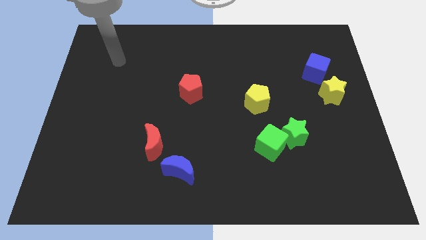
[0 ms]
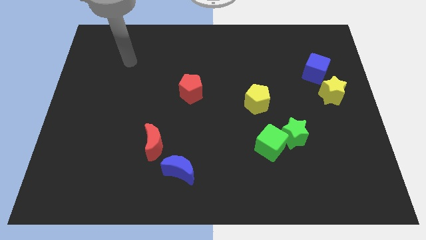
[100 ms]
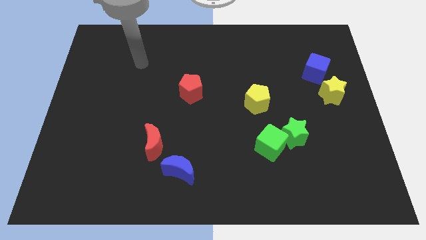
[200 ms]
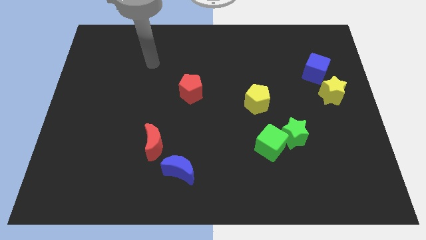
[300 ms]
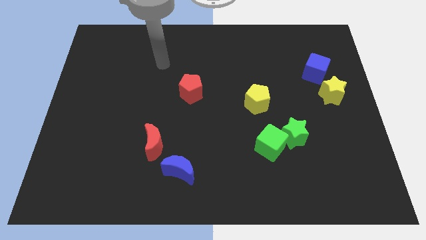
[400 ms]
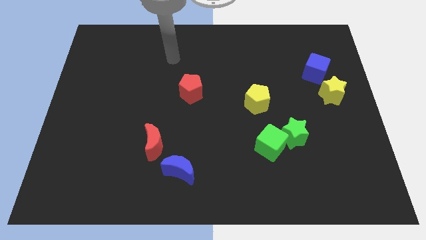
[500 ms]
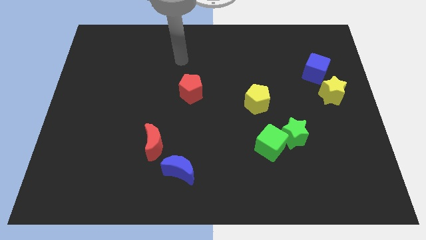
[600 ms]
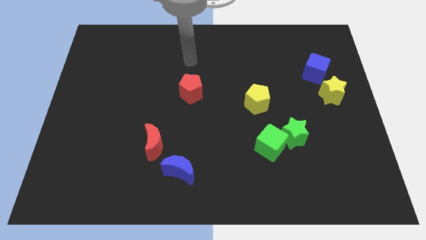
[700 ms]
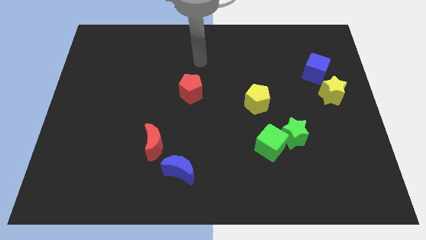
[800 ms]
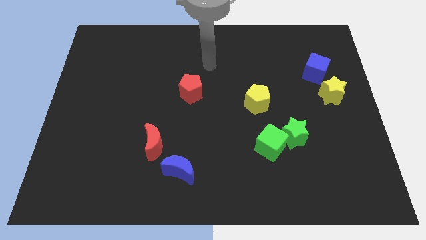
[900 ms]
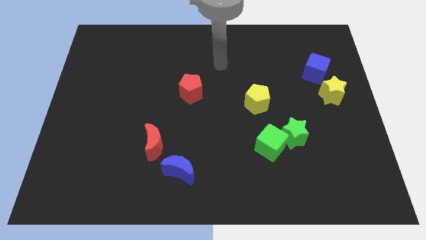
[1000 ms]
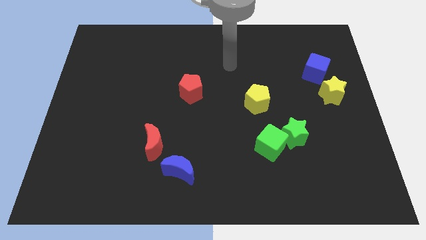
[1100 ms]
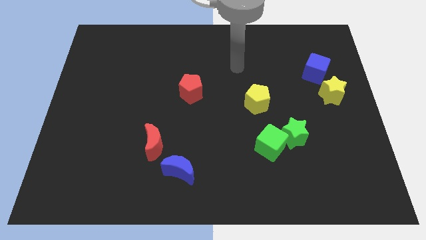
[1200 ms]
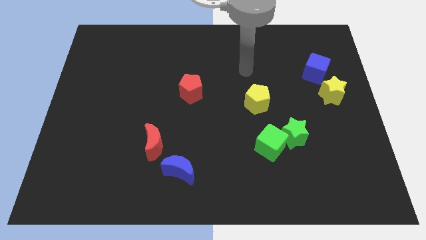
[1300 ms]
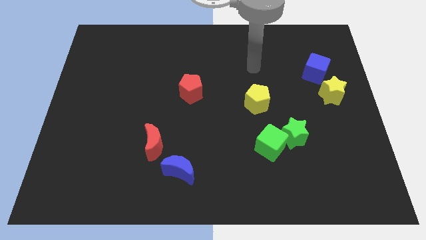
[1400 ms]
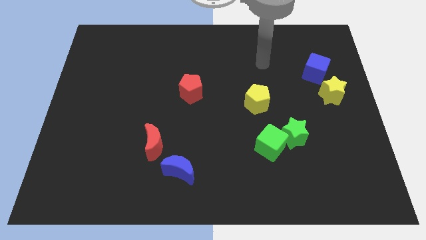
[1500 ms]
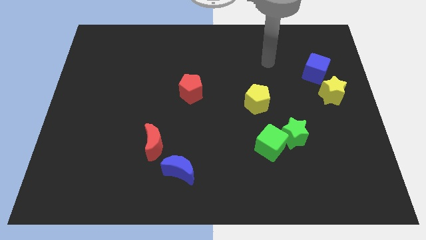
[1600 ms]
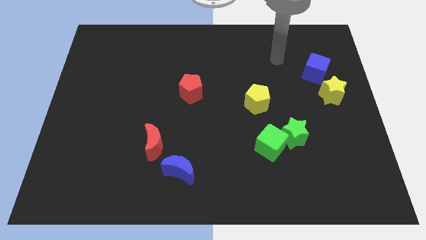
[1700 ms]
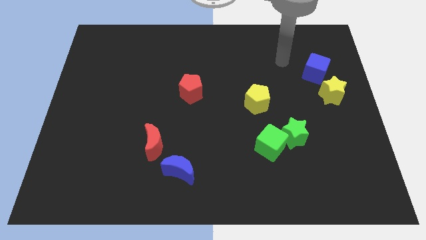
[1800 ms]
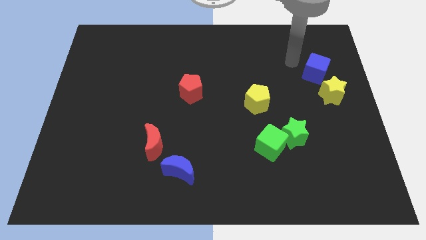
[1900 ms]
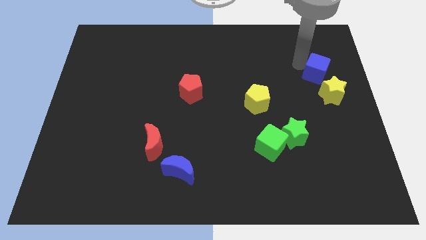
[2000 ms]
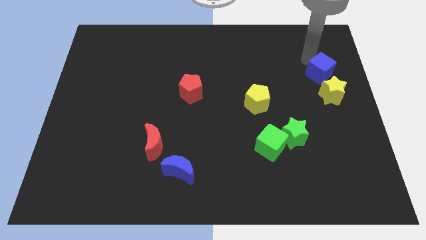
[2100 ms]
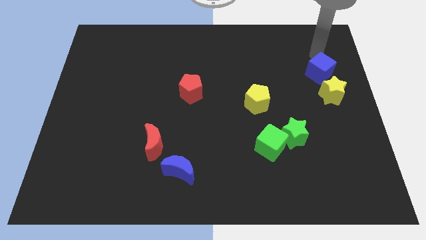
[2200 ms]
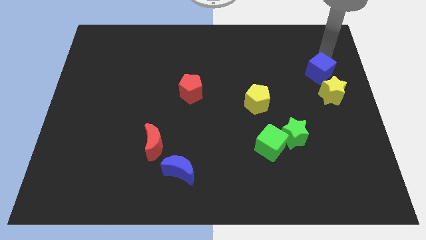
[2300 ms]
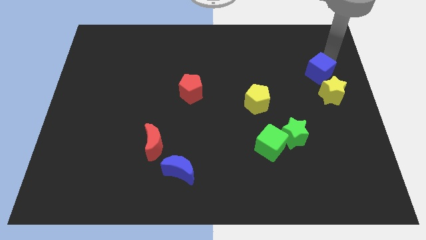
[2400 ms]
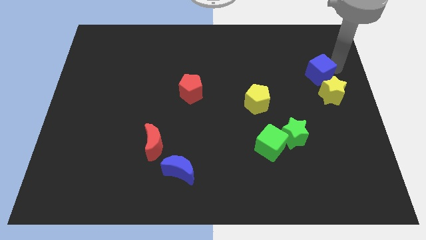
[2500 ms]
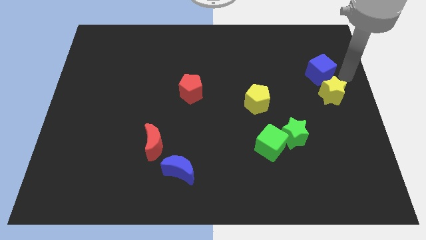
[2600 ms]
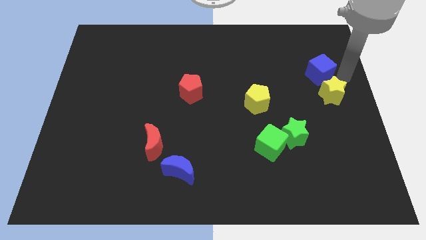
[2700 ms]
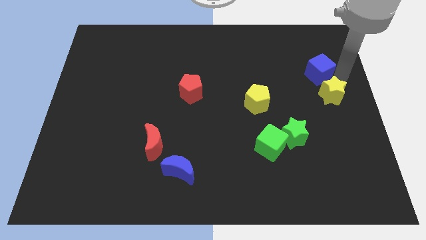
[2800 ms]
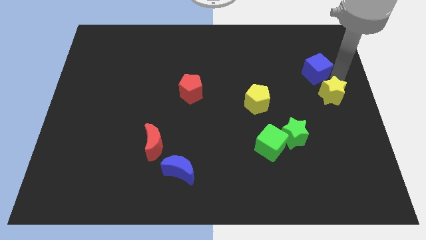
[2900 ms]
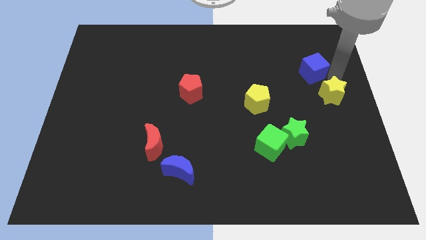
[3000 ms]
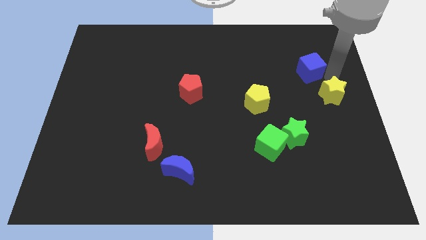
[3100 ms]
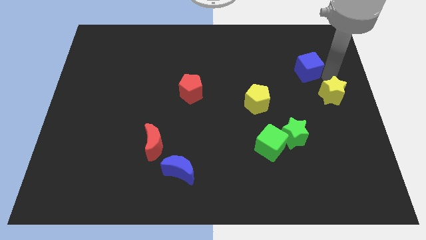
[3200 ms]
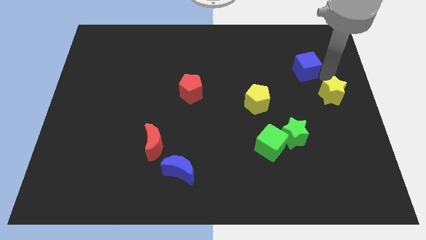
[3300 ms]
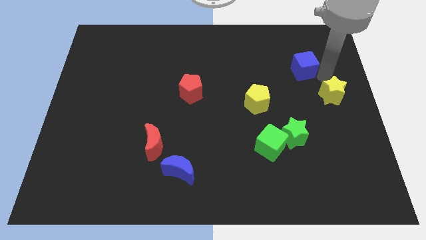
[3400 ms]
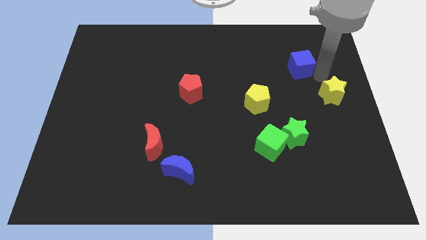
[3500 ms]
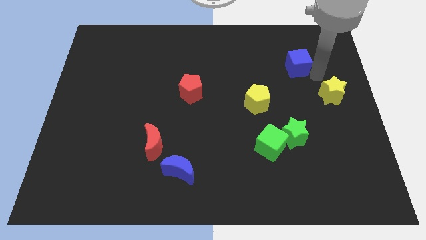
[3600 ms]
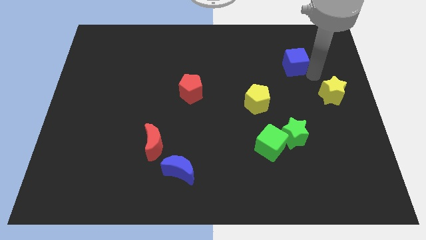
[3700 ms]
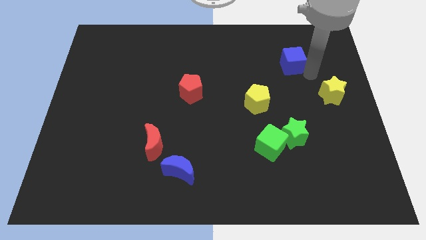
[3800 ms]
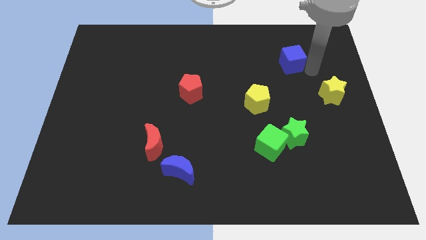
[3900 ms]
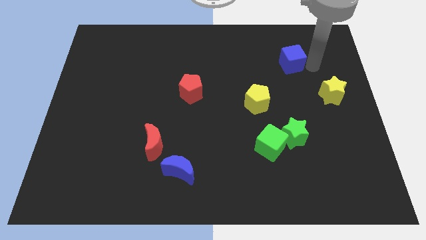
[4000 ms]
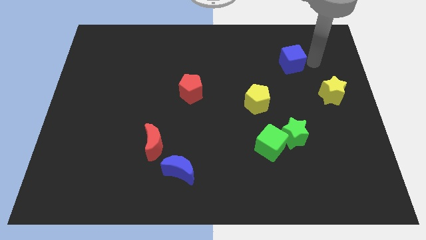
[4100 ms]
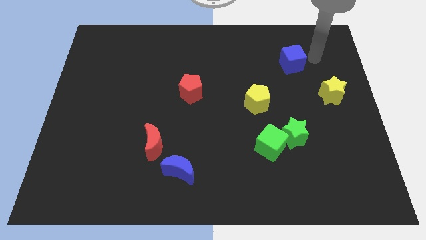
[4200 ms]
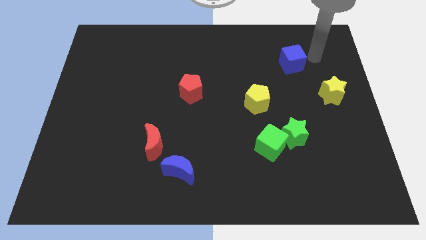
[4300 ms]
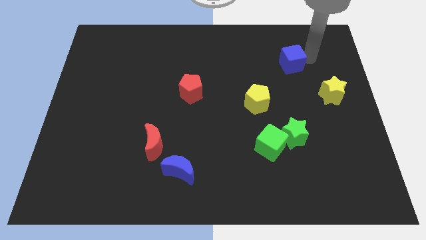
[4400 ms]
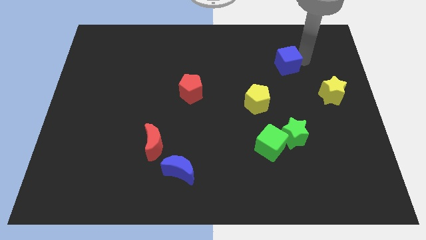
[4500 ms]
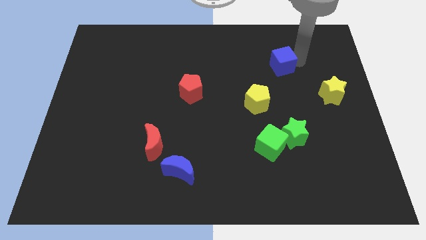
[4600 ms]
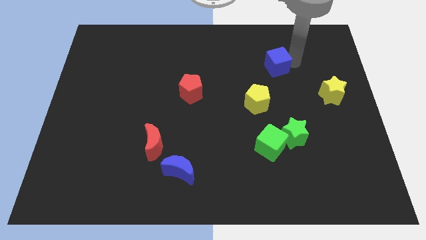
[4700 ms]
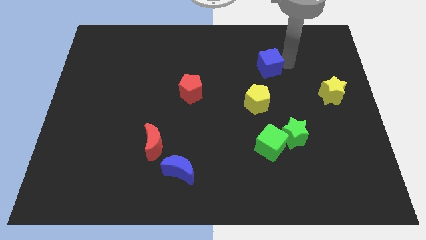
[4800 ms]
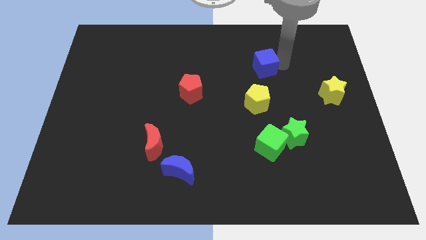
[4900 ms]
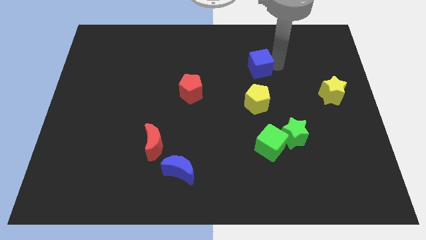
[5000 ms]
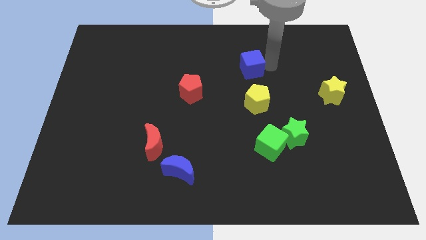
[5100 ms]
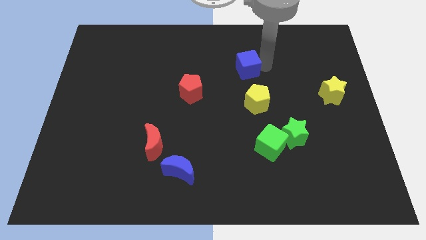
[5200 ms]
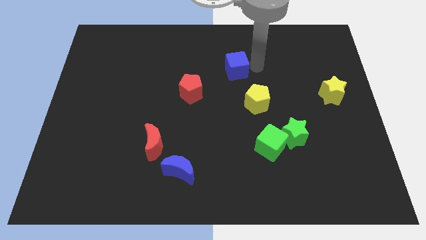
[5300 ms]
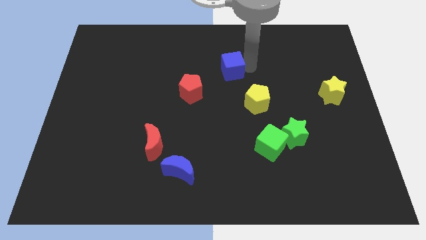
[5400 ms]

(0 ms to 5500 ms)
move the blue cube to the top right side of the red pentagon
